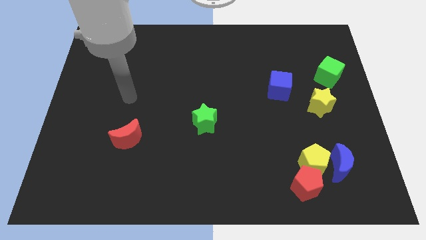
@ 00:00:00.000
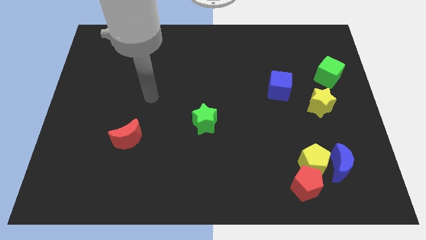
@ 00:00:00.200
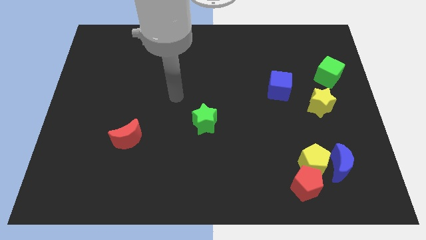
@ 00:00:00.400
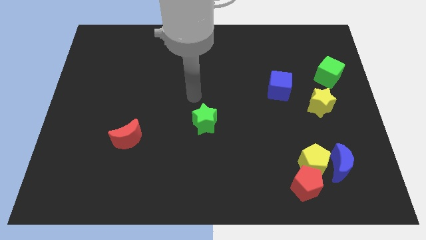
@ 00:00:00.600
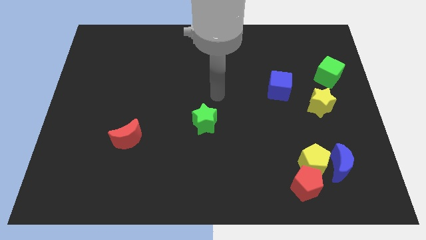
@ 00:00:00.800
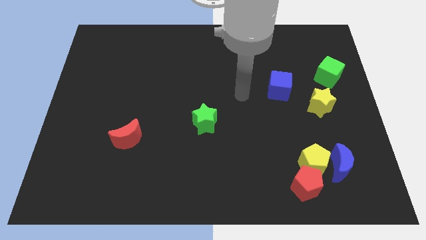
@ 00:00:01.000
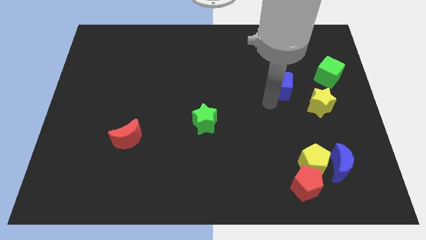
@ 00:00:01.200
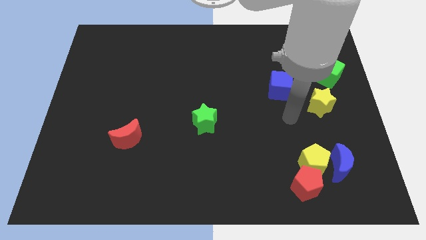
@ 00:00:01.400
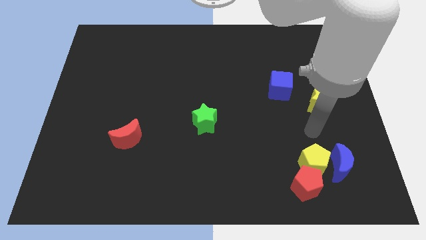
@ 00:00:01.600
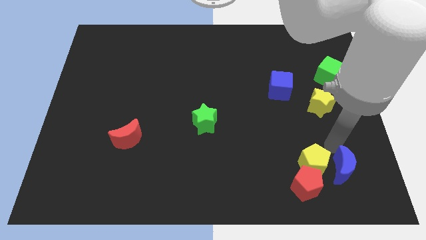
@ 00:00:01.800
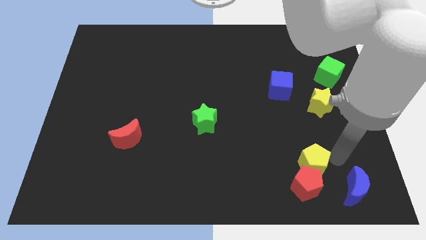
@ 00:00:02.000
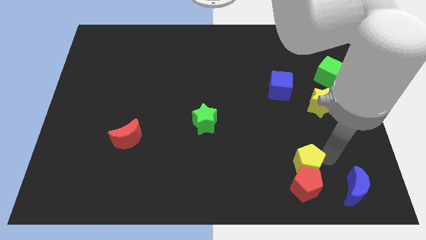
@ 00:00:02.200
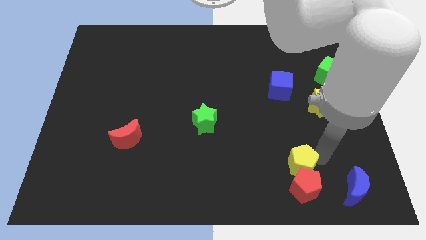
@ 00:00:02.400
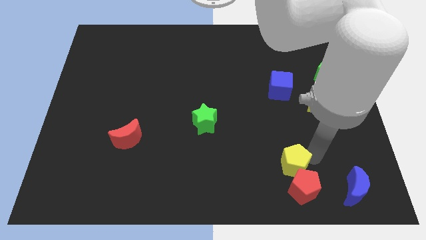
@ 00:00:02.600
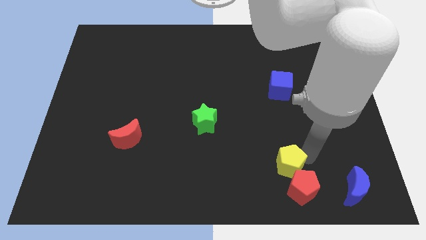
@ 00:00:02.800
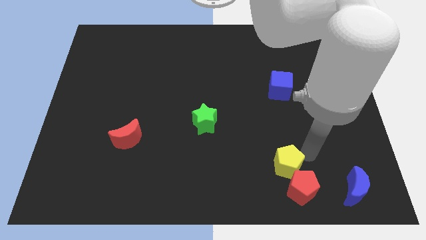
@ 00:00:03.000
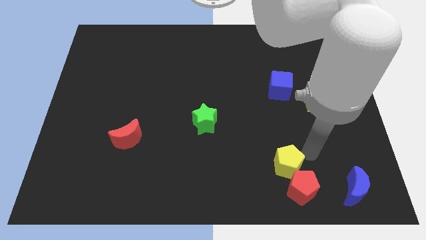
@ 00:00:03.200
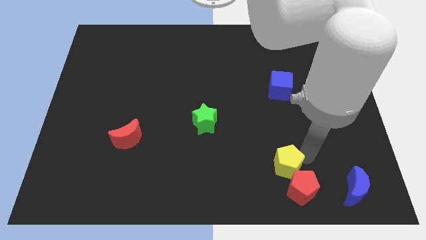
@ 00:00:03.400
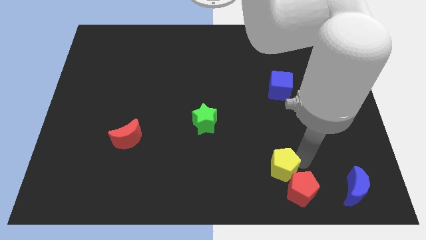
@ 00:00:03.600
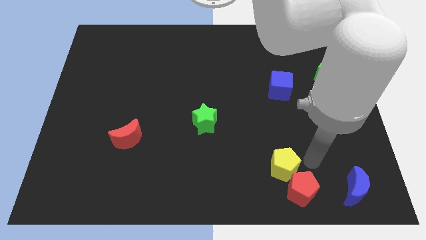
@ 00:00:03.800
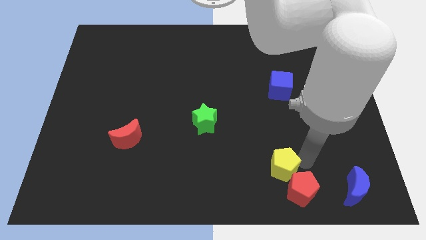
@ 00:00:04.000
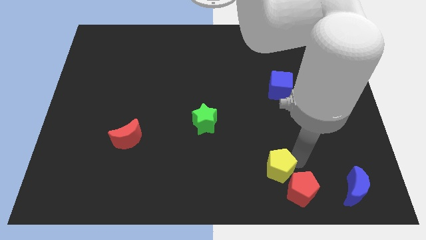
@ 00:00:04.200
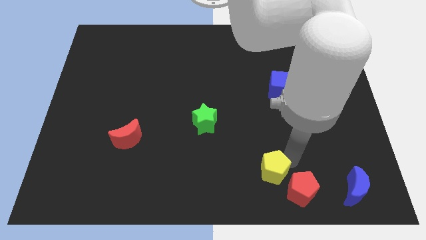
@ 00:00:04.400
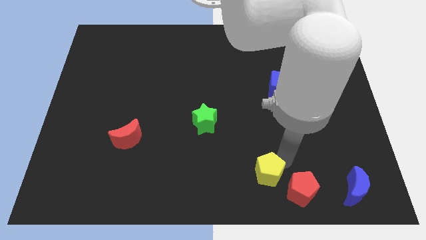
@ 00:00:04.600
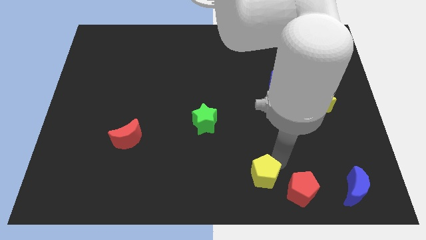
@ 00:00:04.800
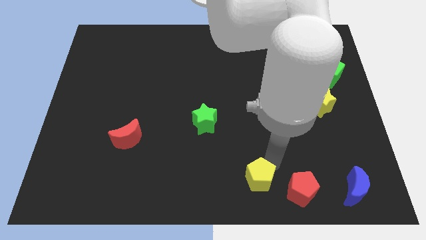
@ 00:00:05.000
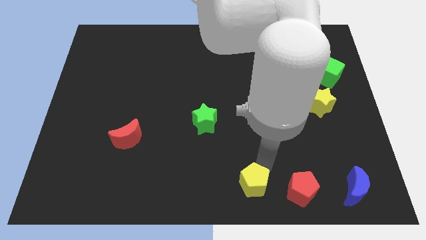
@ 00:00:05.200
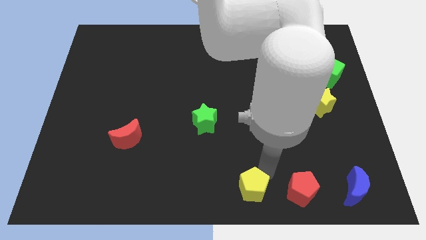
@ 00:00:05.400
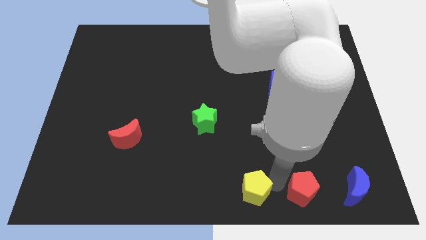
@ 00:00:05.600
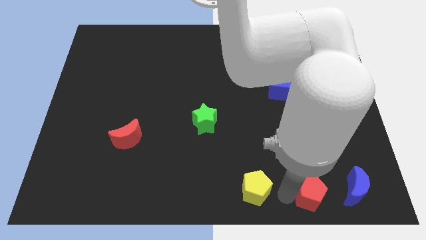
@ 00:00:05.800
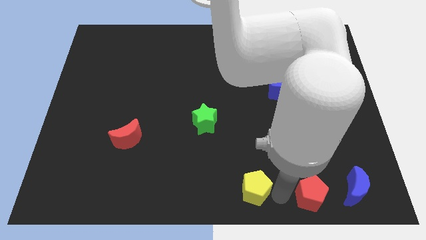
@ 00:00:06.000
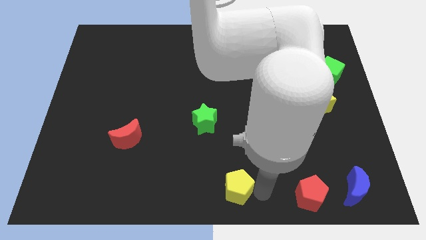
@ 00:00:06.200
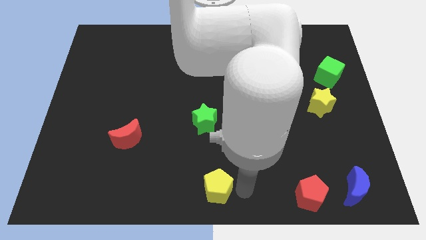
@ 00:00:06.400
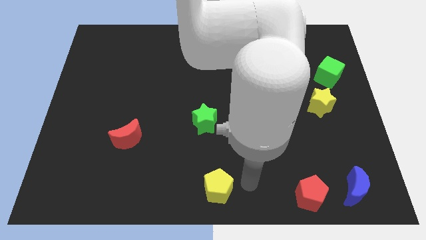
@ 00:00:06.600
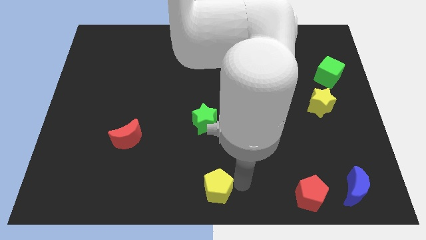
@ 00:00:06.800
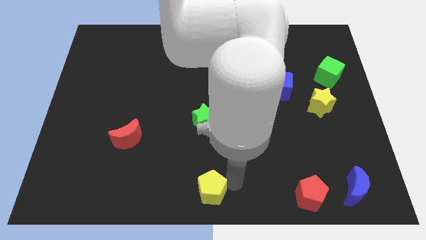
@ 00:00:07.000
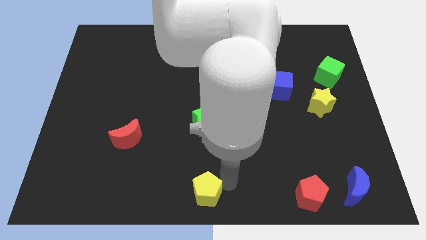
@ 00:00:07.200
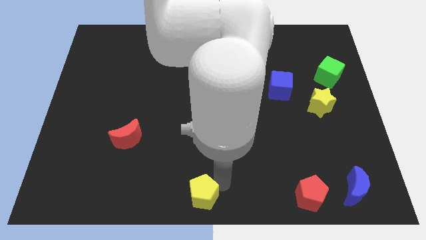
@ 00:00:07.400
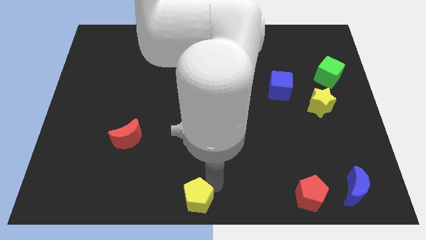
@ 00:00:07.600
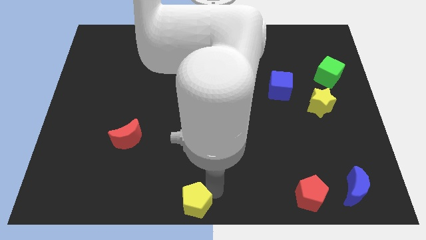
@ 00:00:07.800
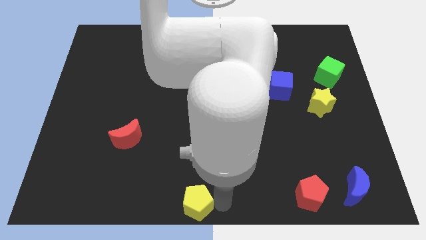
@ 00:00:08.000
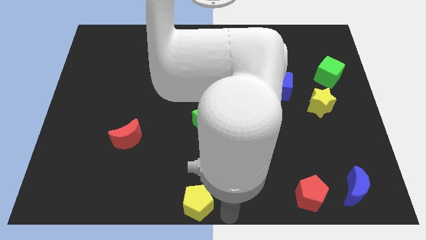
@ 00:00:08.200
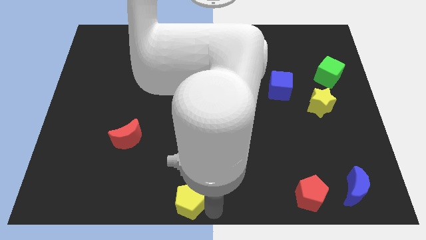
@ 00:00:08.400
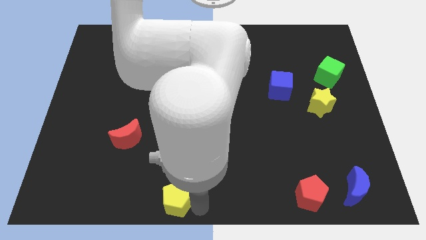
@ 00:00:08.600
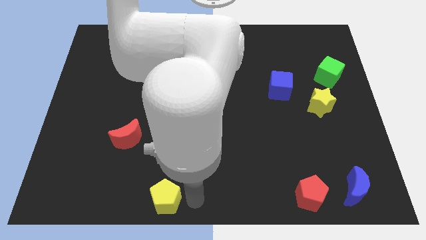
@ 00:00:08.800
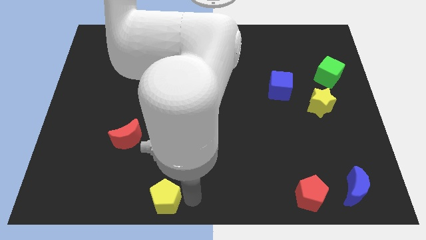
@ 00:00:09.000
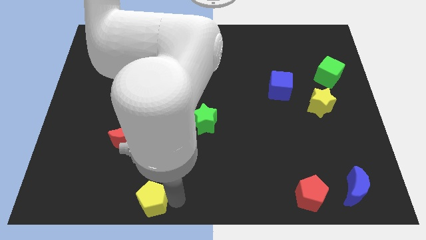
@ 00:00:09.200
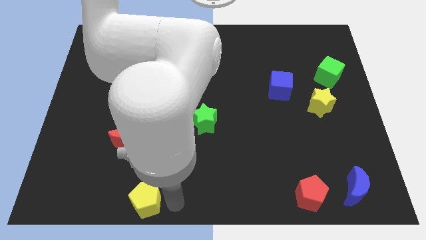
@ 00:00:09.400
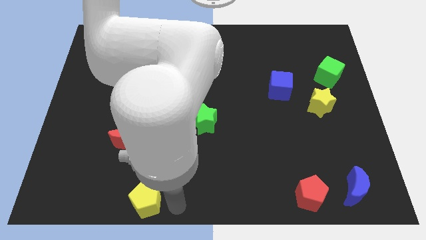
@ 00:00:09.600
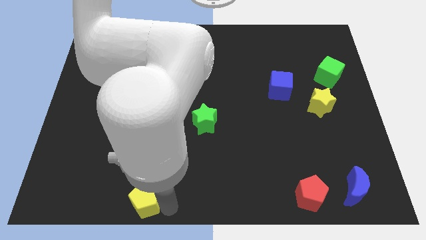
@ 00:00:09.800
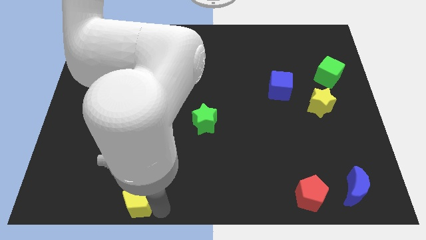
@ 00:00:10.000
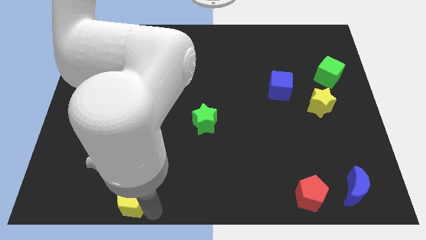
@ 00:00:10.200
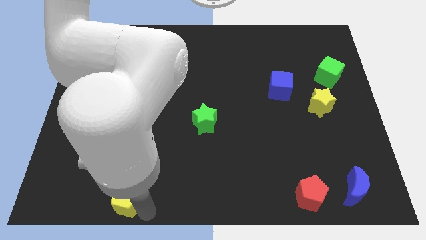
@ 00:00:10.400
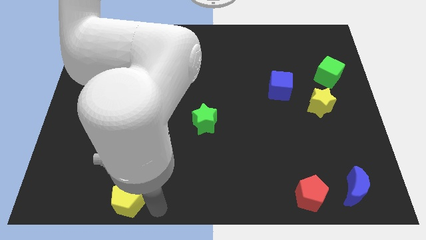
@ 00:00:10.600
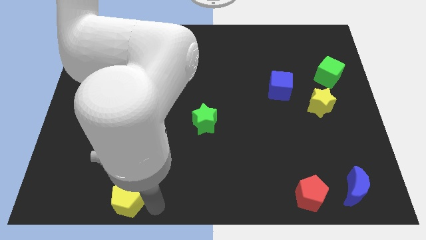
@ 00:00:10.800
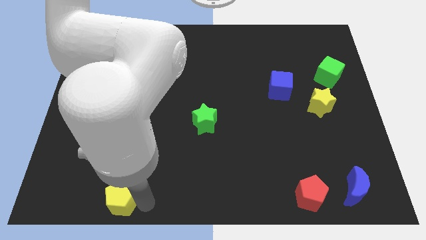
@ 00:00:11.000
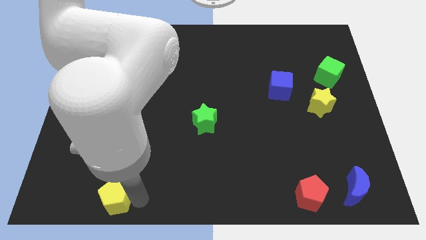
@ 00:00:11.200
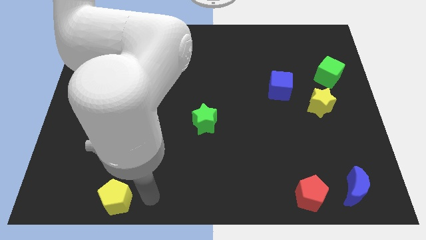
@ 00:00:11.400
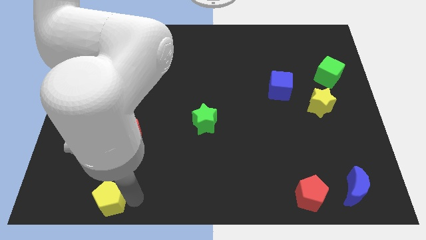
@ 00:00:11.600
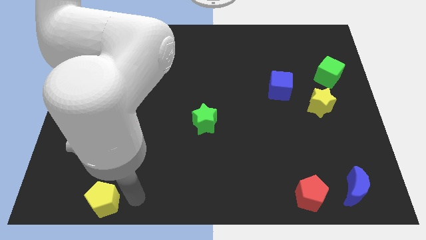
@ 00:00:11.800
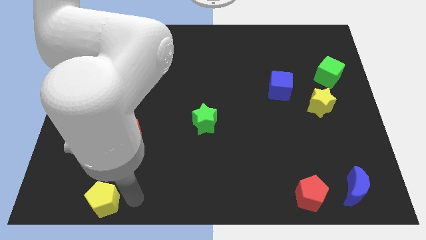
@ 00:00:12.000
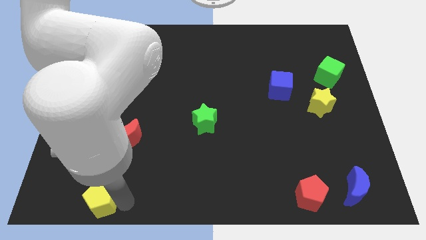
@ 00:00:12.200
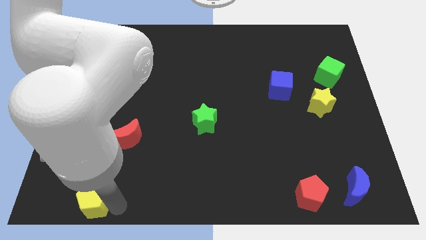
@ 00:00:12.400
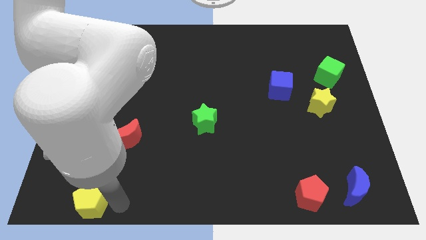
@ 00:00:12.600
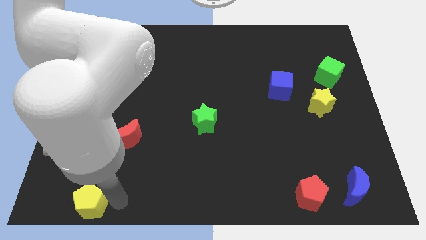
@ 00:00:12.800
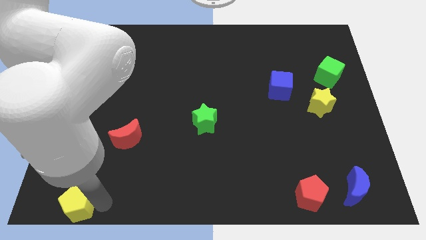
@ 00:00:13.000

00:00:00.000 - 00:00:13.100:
push the yellow pentagon to the bottom left

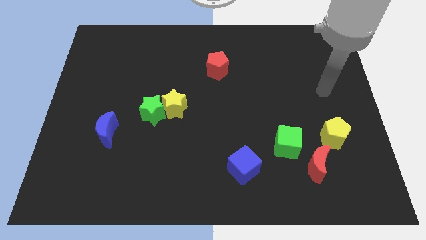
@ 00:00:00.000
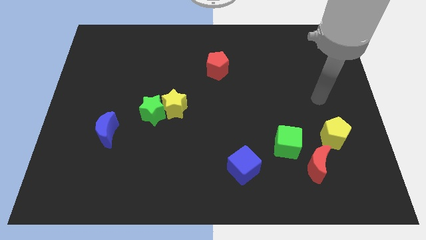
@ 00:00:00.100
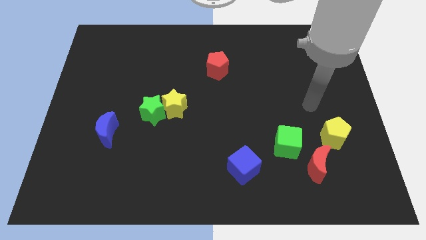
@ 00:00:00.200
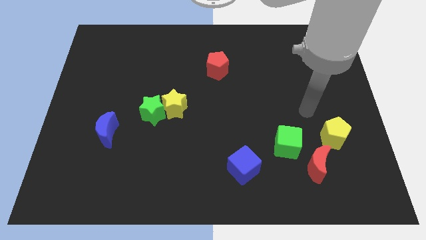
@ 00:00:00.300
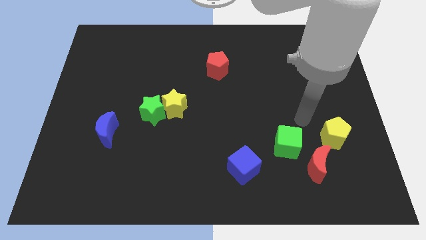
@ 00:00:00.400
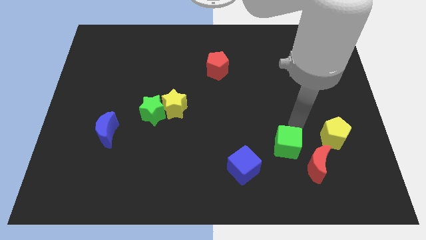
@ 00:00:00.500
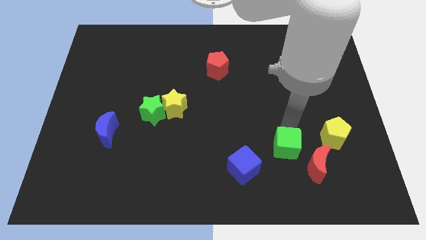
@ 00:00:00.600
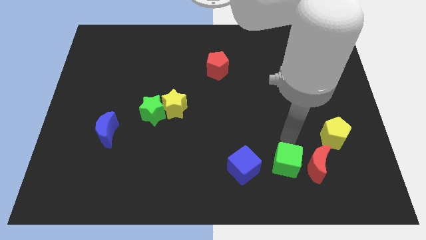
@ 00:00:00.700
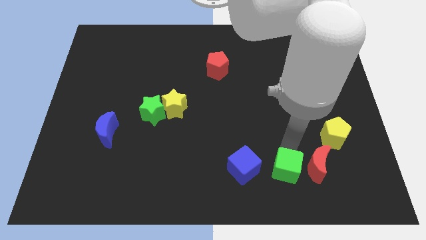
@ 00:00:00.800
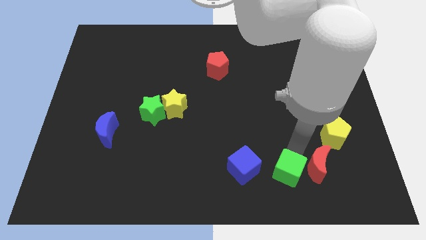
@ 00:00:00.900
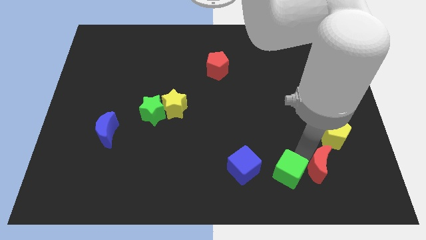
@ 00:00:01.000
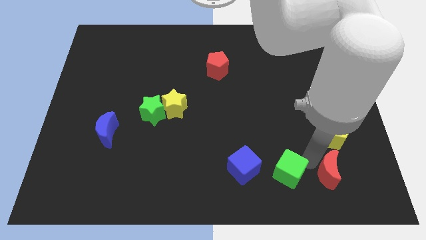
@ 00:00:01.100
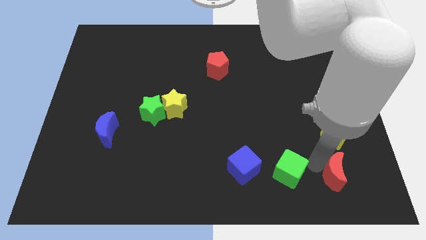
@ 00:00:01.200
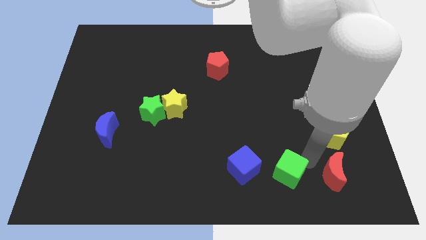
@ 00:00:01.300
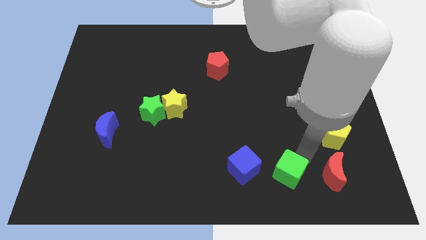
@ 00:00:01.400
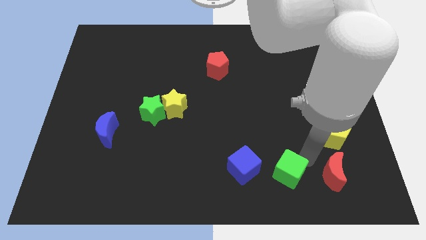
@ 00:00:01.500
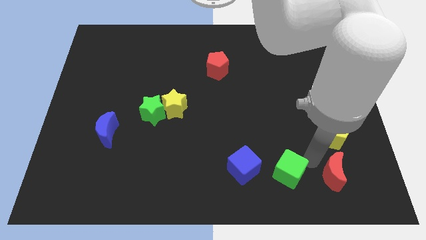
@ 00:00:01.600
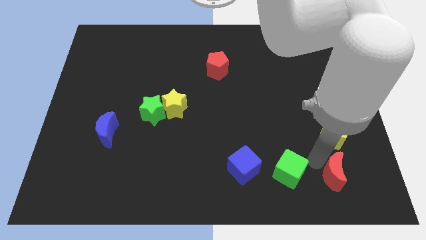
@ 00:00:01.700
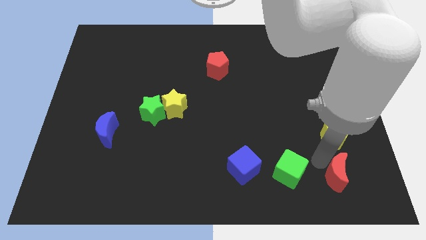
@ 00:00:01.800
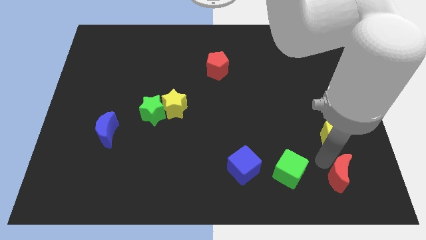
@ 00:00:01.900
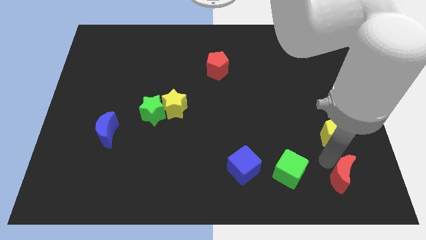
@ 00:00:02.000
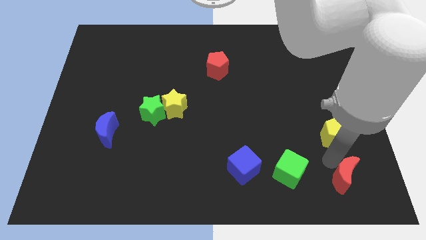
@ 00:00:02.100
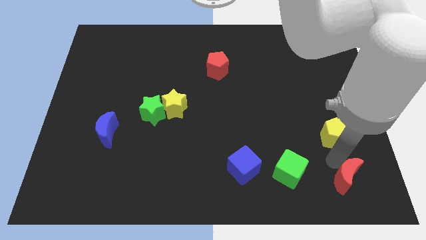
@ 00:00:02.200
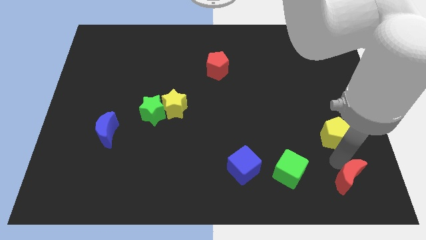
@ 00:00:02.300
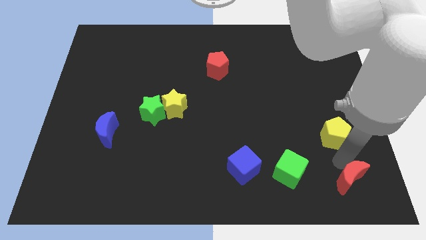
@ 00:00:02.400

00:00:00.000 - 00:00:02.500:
put the red moon to the bottom right of the board
